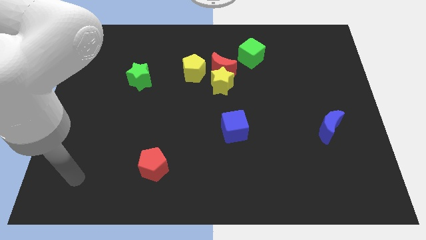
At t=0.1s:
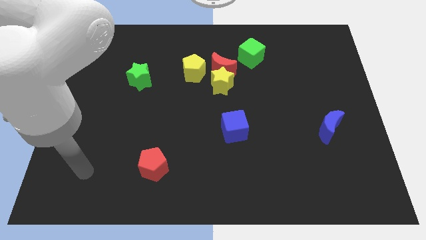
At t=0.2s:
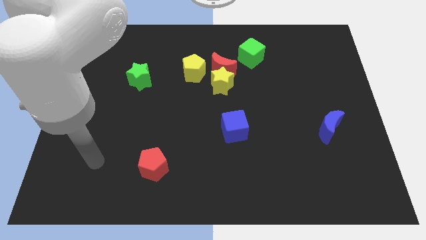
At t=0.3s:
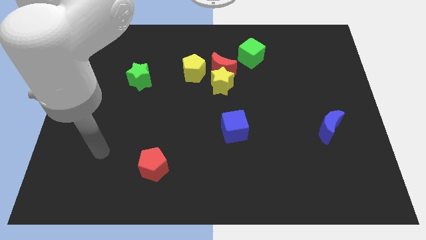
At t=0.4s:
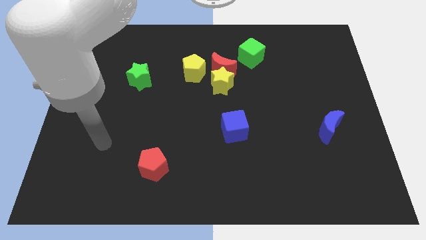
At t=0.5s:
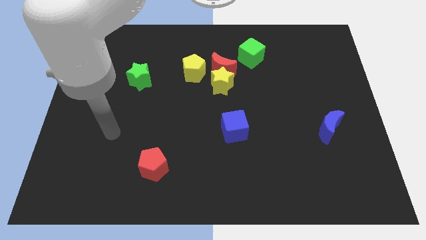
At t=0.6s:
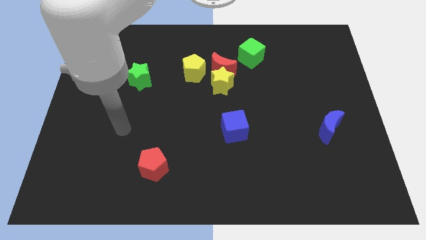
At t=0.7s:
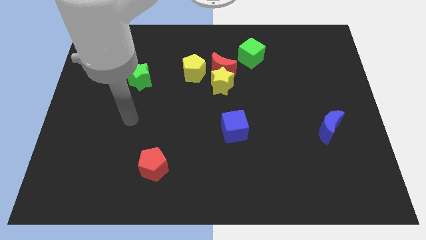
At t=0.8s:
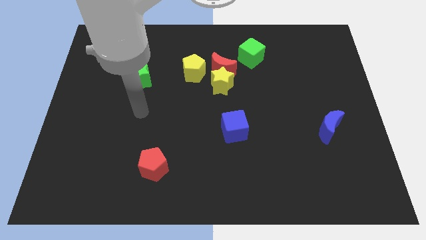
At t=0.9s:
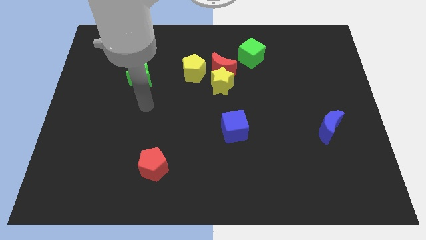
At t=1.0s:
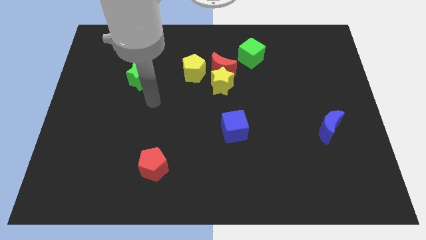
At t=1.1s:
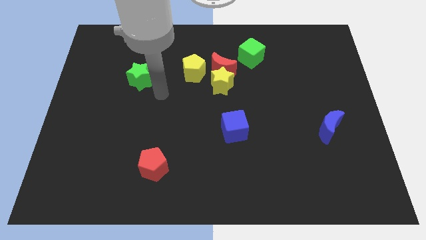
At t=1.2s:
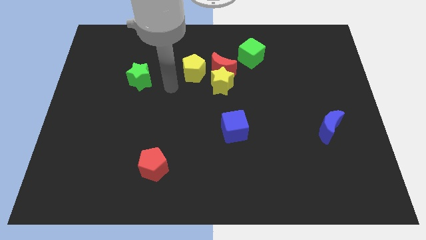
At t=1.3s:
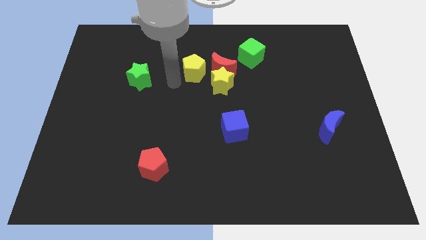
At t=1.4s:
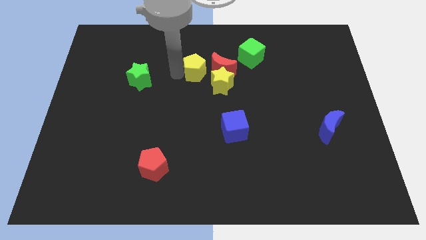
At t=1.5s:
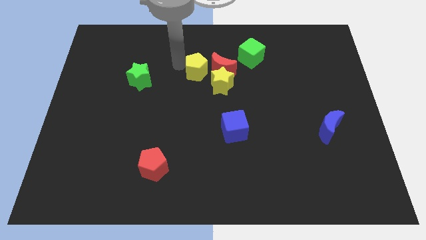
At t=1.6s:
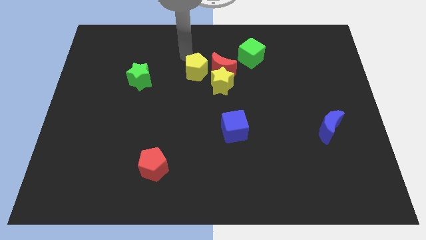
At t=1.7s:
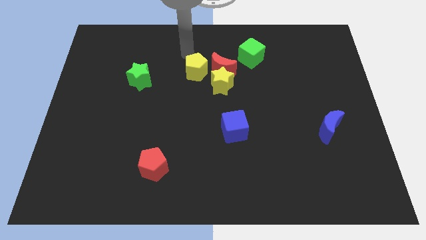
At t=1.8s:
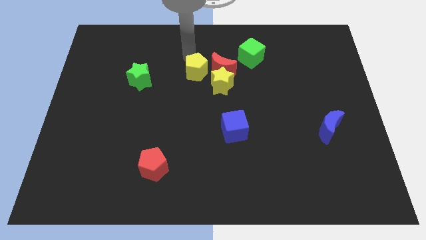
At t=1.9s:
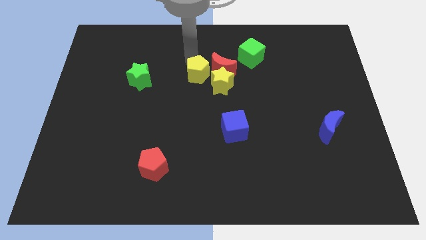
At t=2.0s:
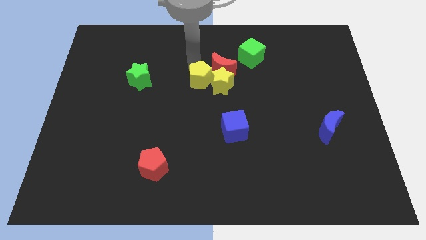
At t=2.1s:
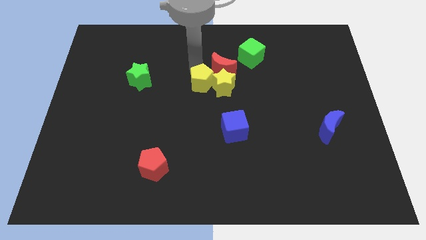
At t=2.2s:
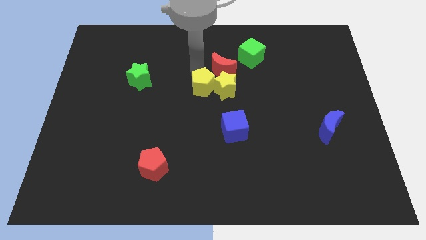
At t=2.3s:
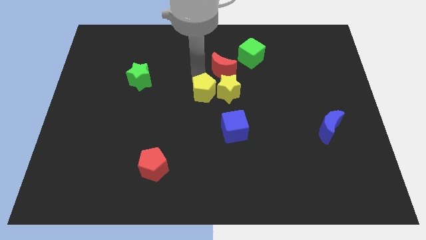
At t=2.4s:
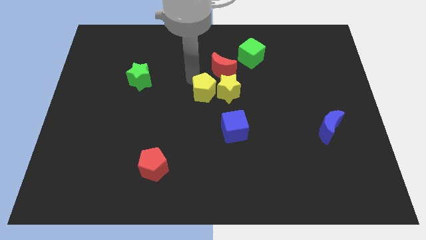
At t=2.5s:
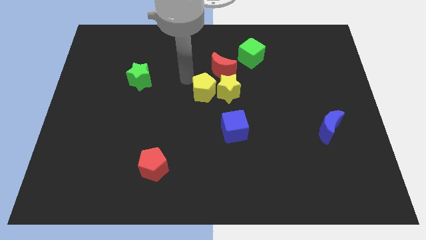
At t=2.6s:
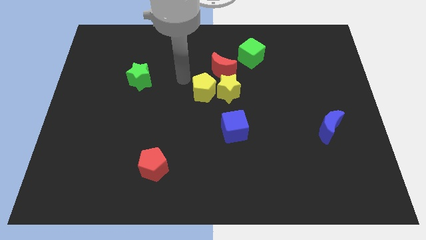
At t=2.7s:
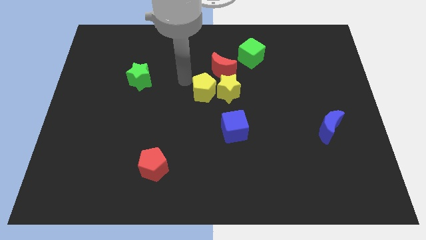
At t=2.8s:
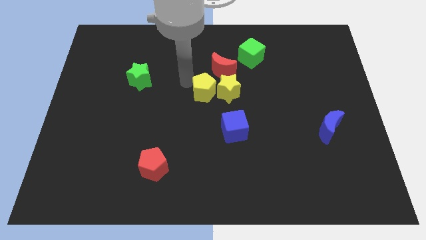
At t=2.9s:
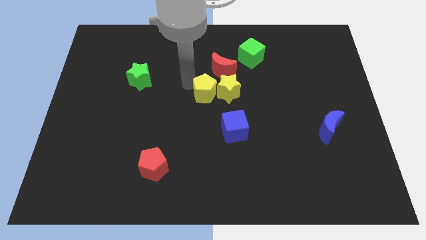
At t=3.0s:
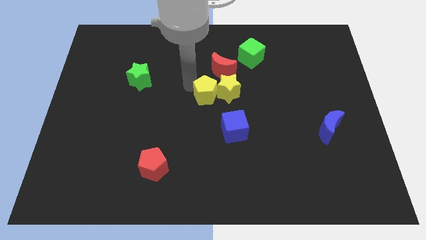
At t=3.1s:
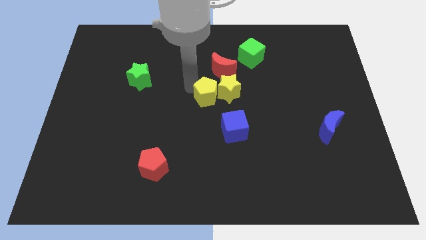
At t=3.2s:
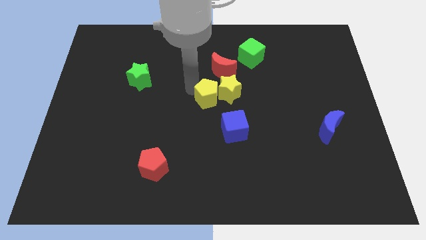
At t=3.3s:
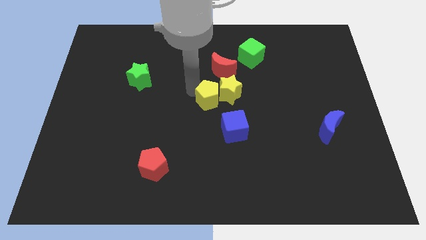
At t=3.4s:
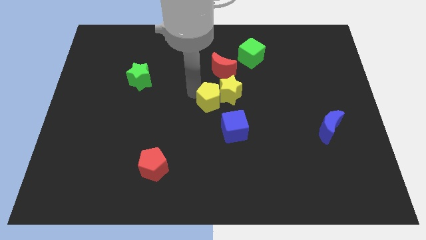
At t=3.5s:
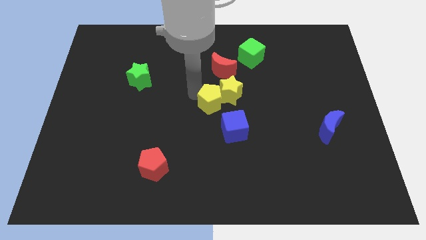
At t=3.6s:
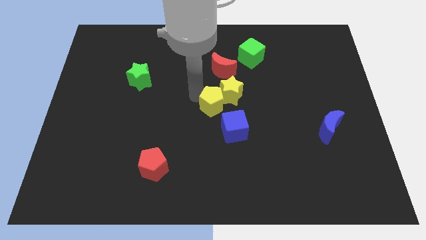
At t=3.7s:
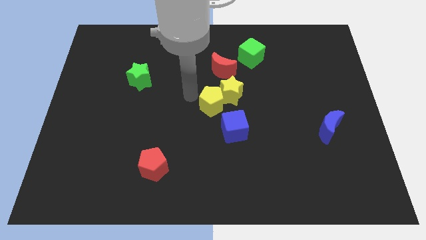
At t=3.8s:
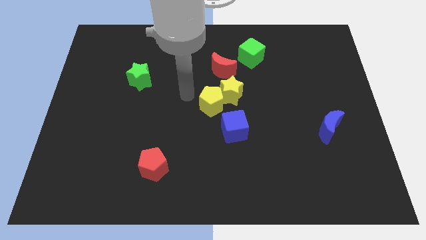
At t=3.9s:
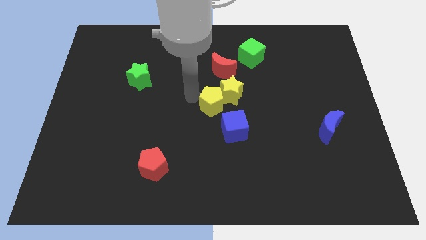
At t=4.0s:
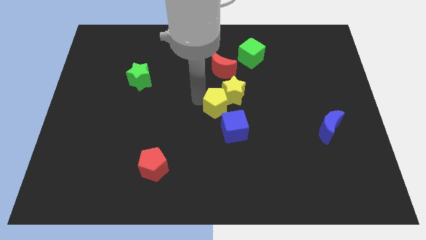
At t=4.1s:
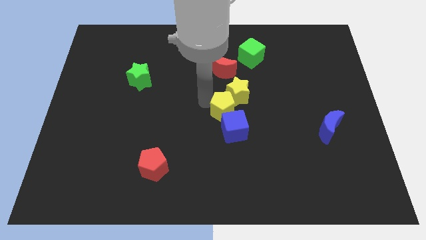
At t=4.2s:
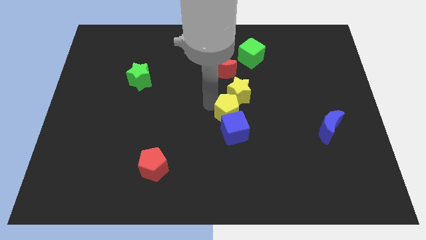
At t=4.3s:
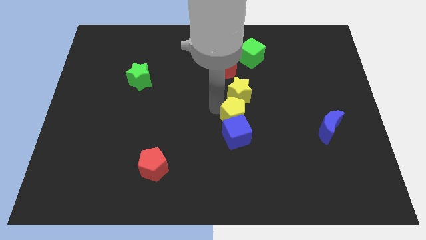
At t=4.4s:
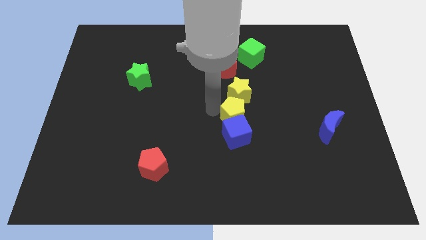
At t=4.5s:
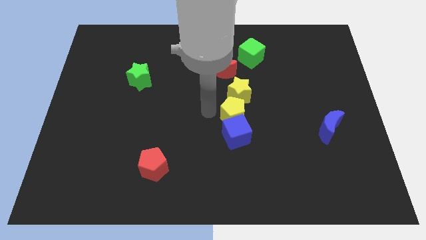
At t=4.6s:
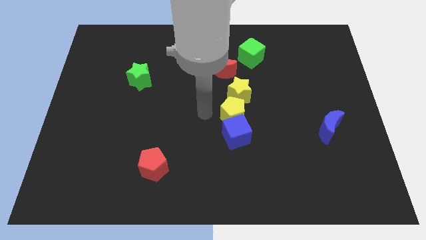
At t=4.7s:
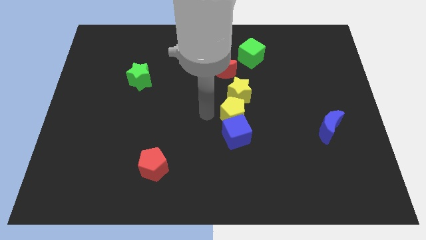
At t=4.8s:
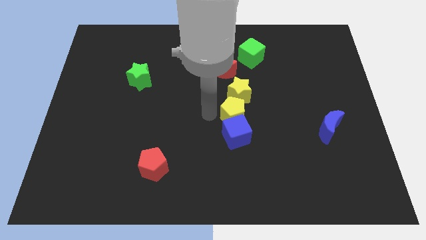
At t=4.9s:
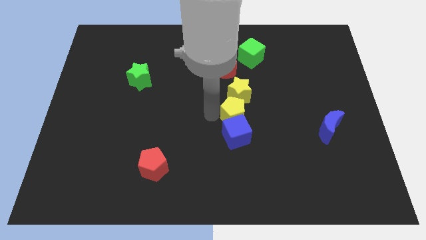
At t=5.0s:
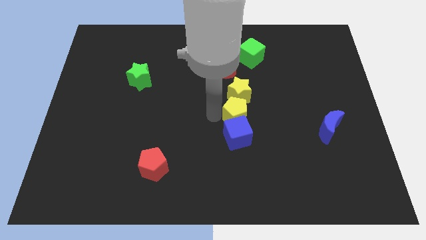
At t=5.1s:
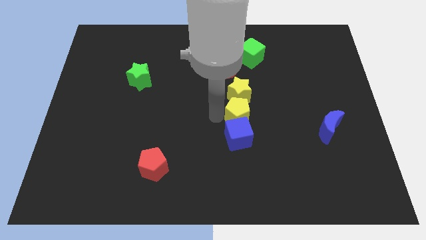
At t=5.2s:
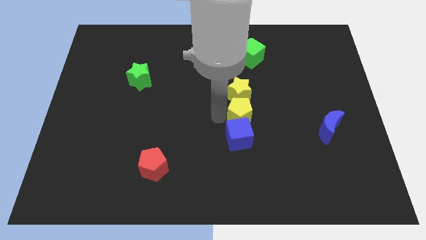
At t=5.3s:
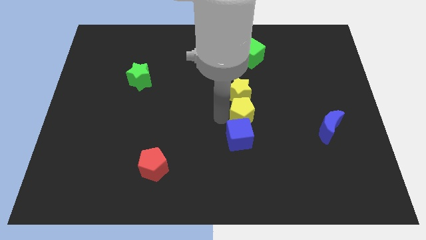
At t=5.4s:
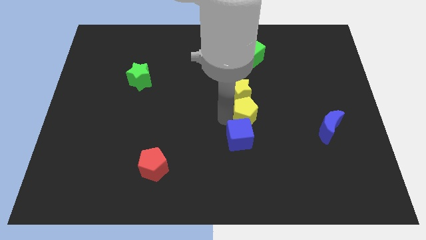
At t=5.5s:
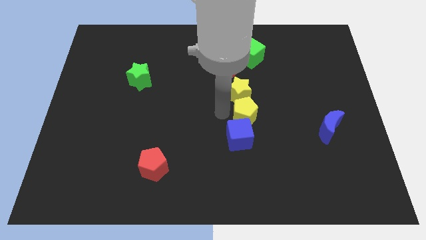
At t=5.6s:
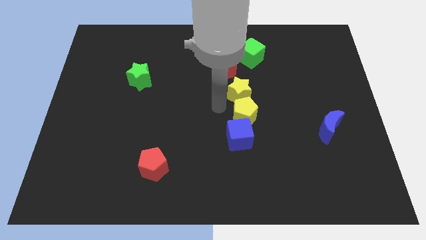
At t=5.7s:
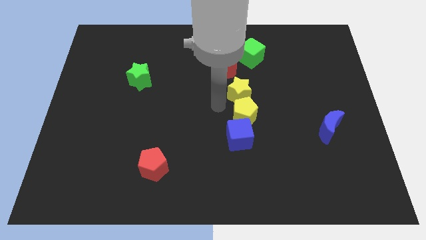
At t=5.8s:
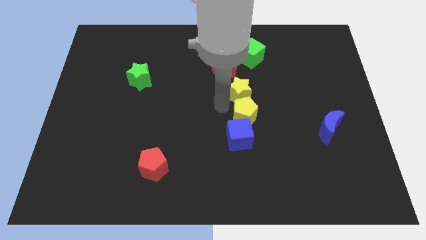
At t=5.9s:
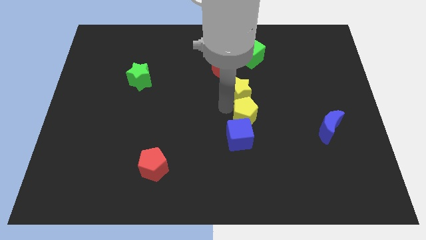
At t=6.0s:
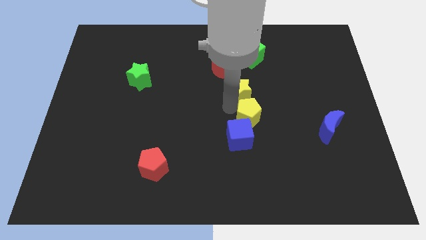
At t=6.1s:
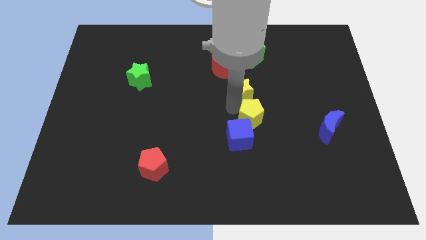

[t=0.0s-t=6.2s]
move the yellow pentagon down and right diagonally

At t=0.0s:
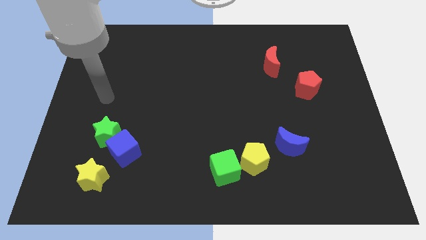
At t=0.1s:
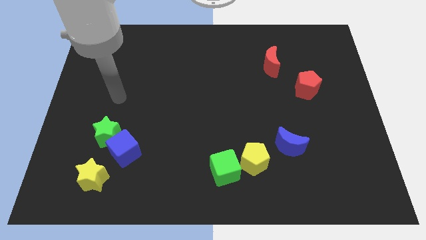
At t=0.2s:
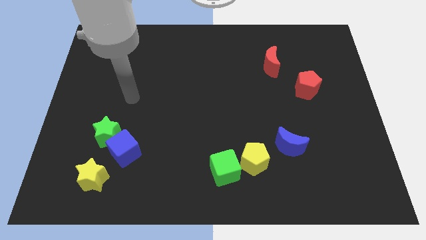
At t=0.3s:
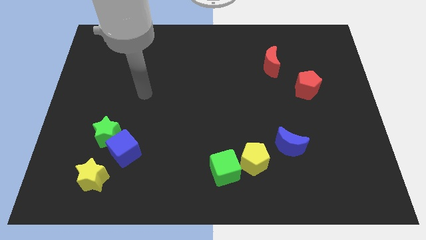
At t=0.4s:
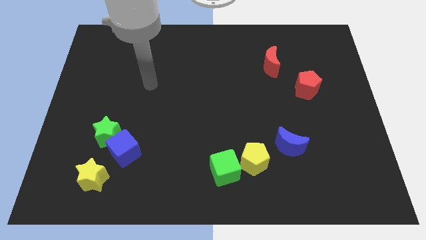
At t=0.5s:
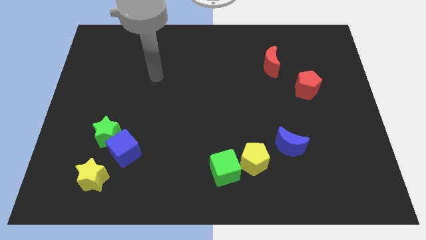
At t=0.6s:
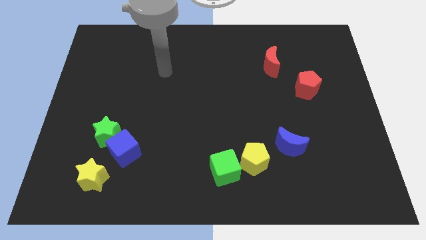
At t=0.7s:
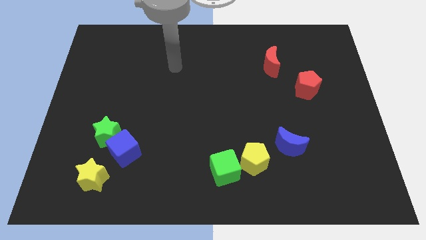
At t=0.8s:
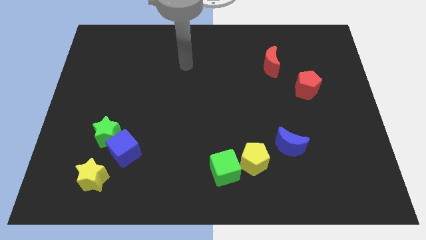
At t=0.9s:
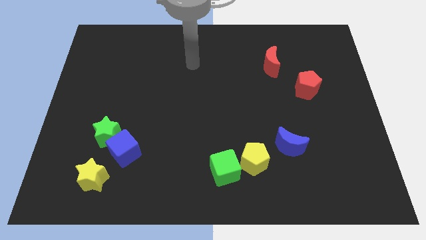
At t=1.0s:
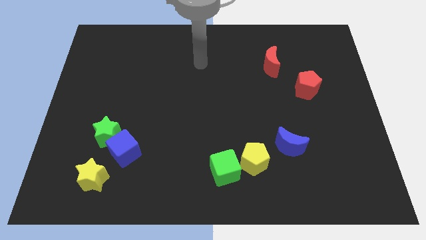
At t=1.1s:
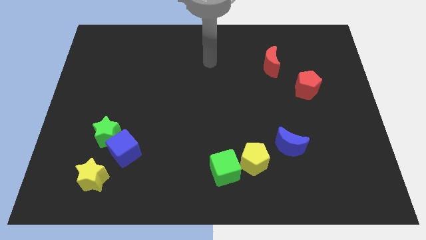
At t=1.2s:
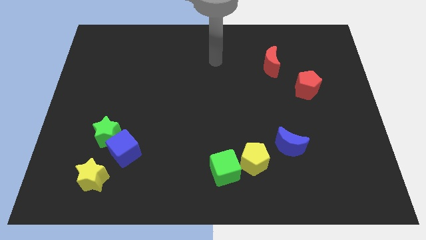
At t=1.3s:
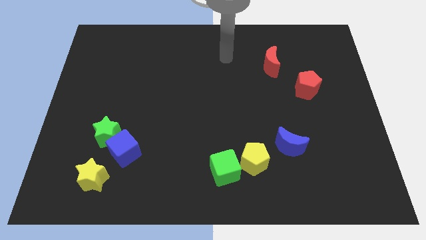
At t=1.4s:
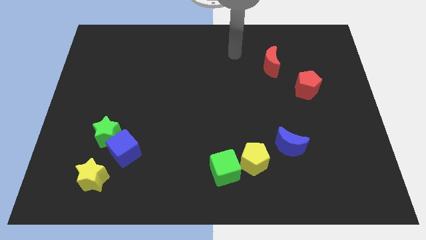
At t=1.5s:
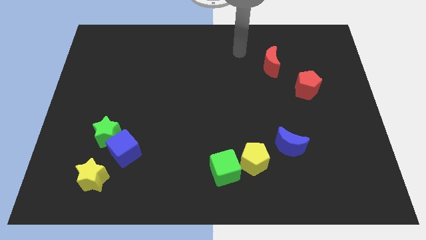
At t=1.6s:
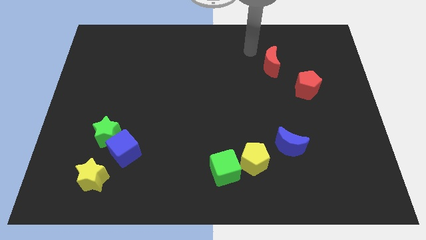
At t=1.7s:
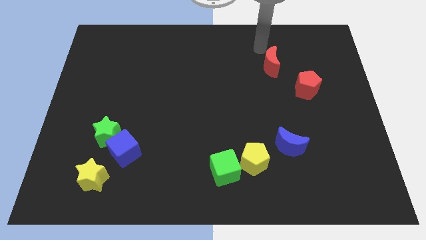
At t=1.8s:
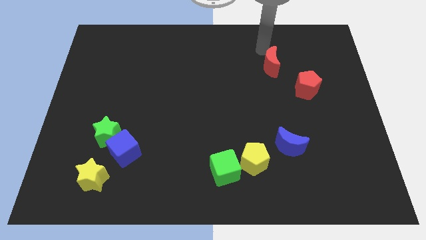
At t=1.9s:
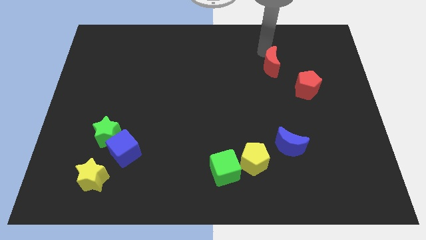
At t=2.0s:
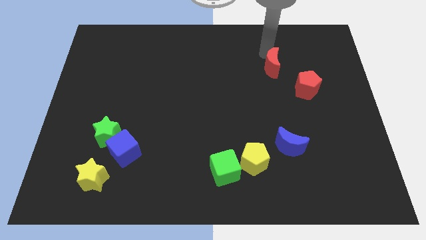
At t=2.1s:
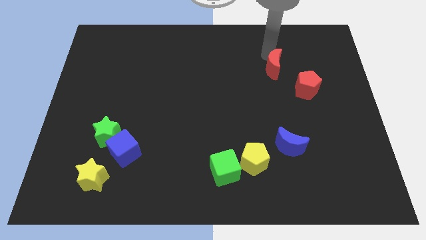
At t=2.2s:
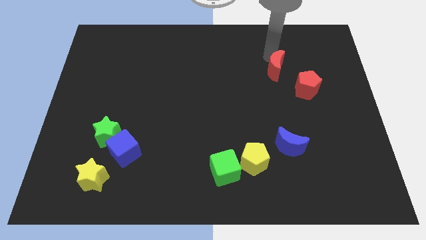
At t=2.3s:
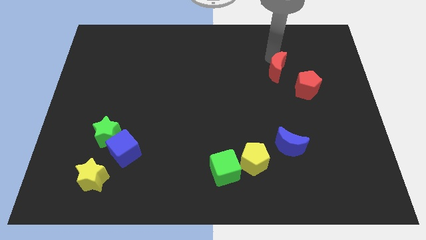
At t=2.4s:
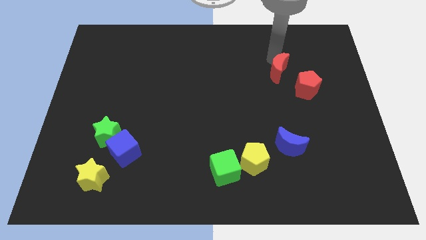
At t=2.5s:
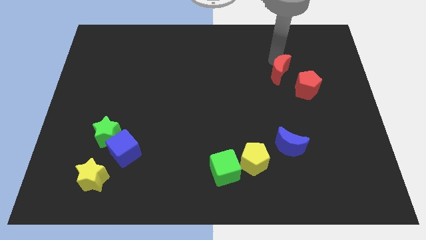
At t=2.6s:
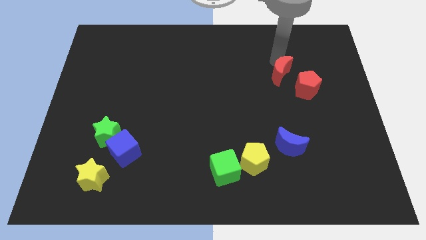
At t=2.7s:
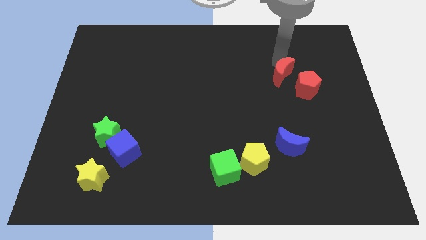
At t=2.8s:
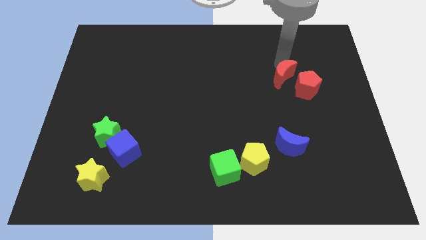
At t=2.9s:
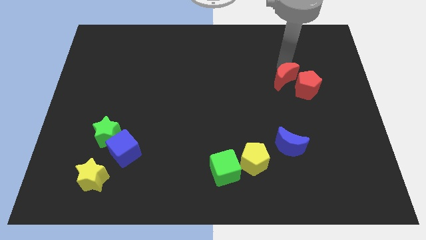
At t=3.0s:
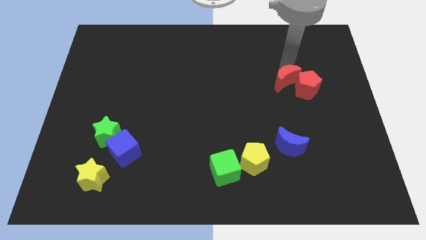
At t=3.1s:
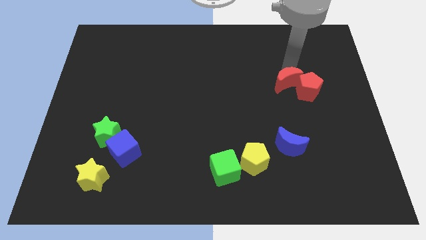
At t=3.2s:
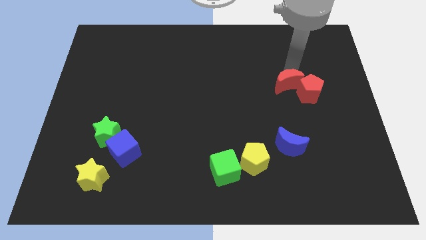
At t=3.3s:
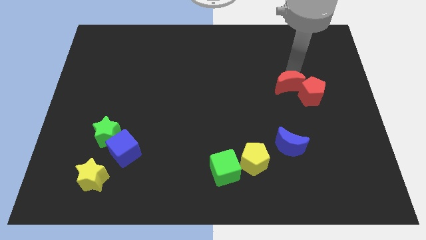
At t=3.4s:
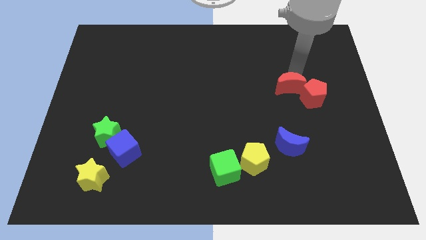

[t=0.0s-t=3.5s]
move the red moon downwards slightly
